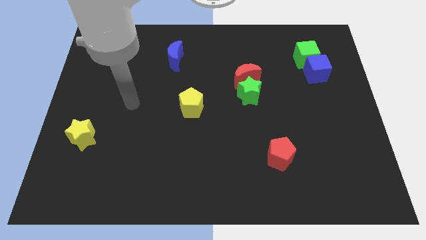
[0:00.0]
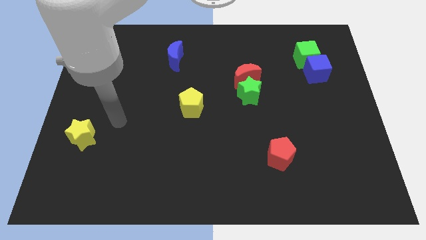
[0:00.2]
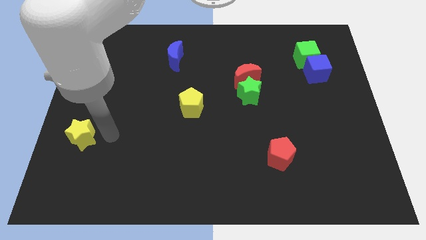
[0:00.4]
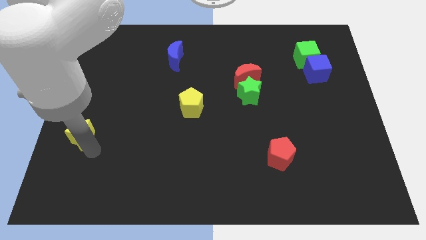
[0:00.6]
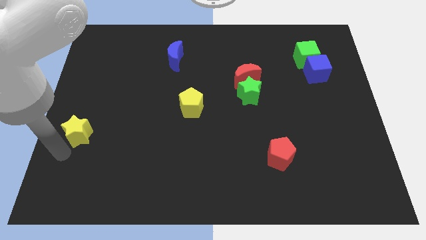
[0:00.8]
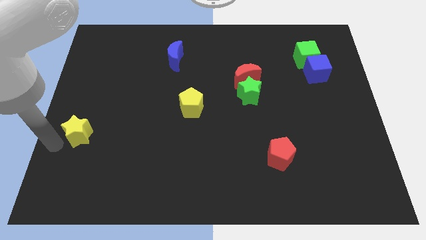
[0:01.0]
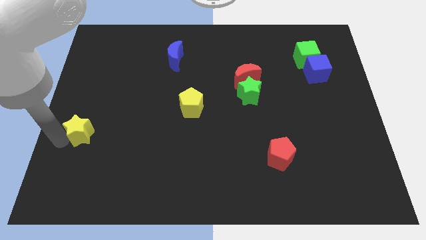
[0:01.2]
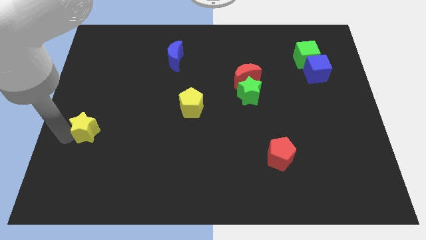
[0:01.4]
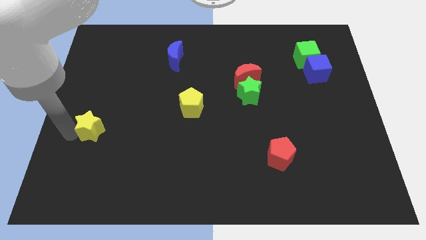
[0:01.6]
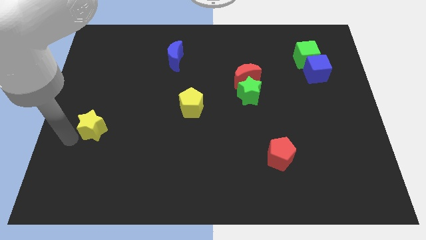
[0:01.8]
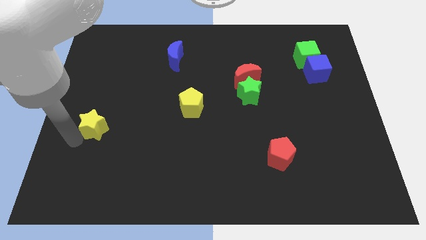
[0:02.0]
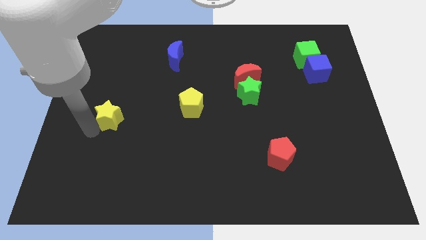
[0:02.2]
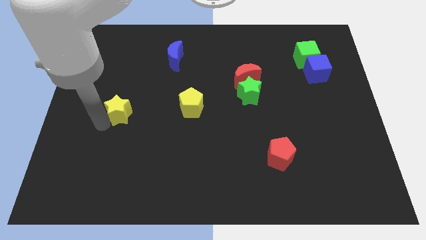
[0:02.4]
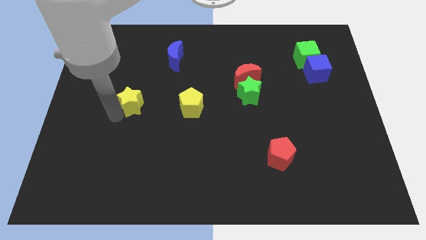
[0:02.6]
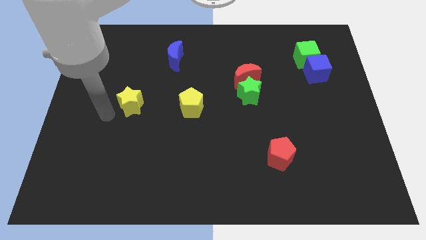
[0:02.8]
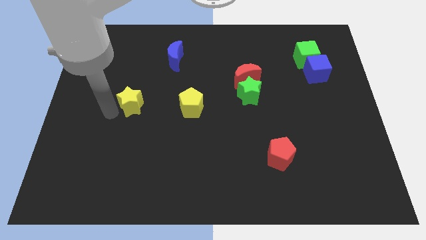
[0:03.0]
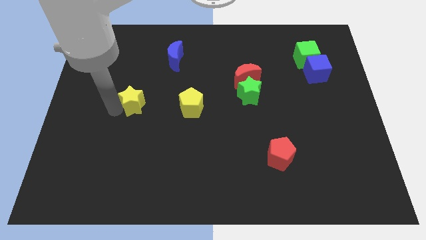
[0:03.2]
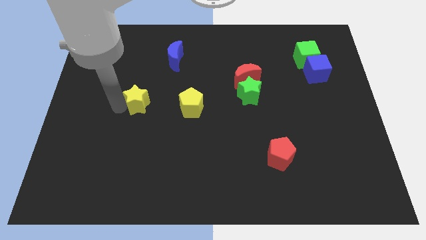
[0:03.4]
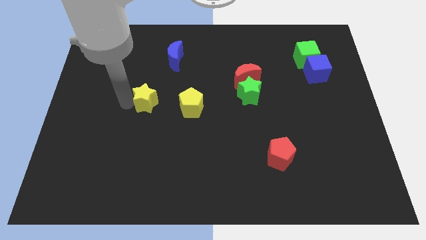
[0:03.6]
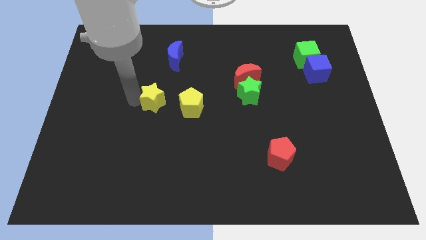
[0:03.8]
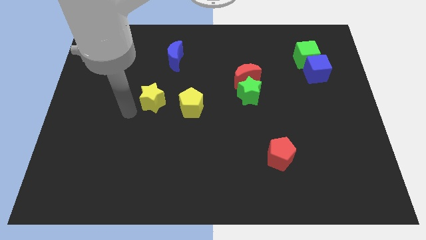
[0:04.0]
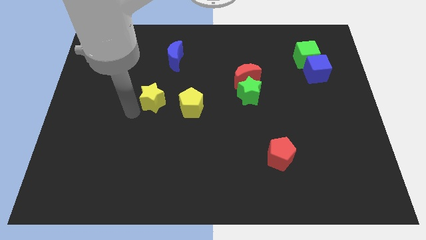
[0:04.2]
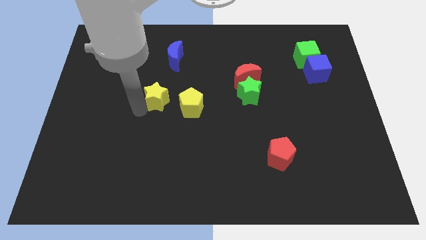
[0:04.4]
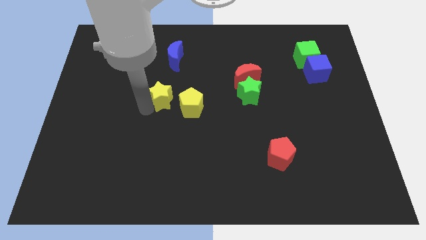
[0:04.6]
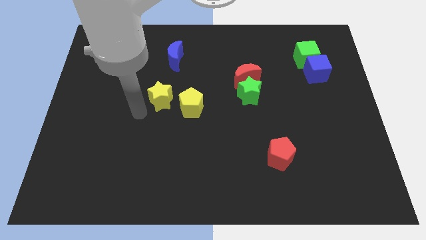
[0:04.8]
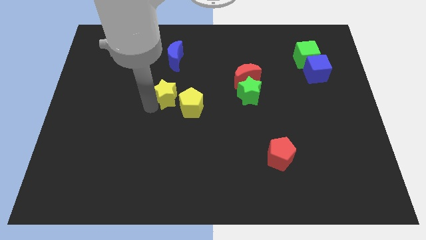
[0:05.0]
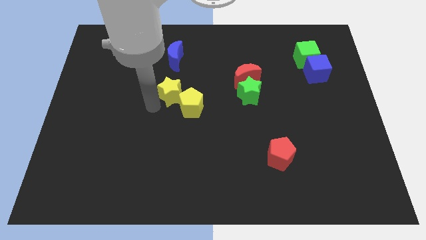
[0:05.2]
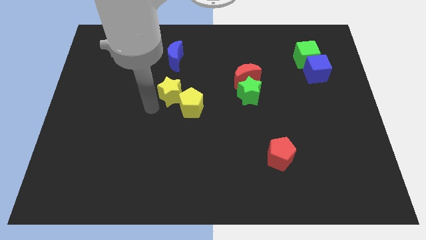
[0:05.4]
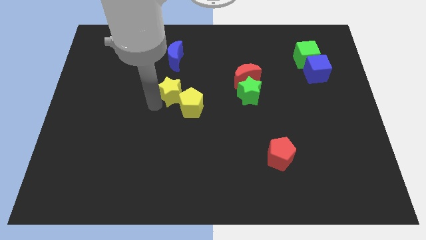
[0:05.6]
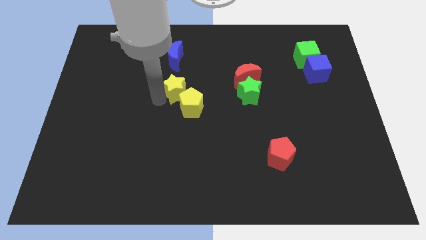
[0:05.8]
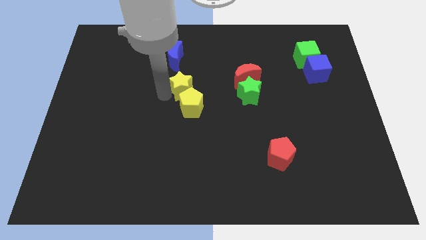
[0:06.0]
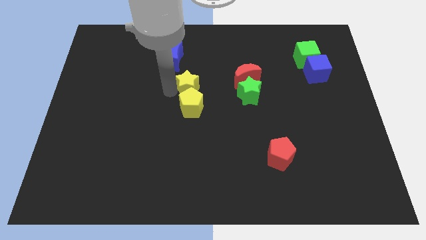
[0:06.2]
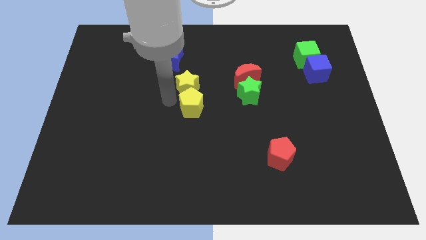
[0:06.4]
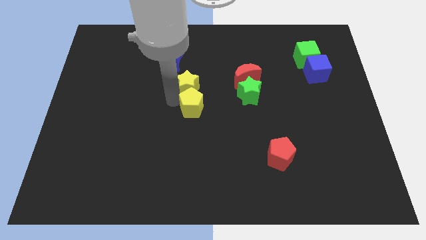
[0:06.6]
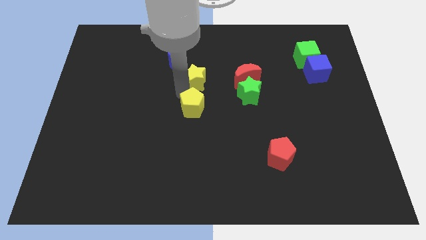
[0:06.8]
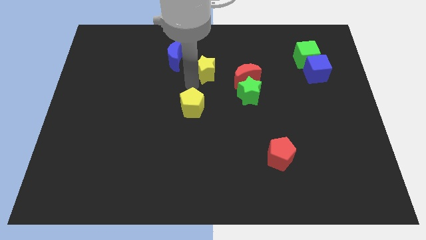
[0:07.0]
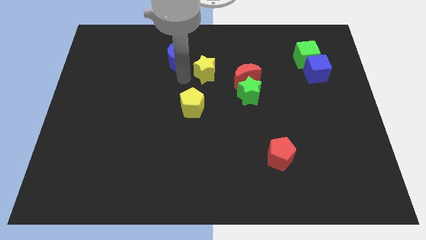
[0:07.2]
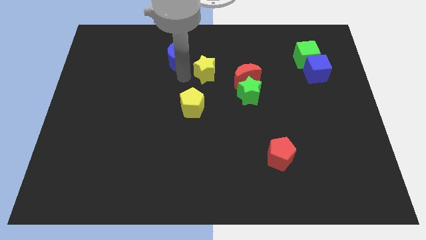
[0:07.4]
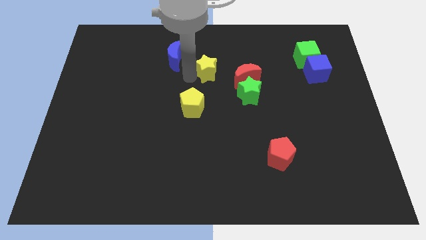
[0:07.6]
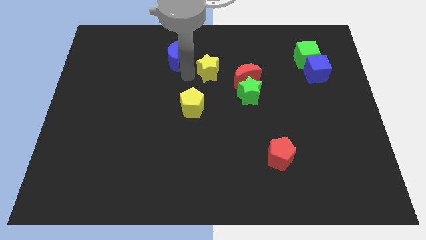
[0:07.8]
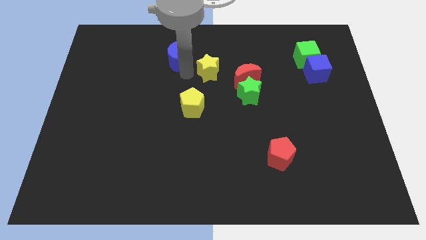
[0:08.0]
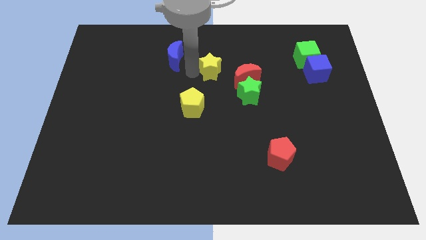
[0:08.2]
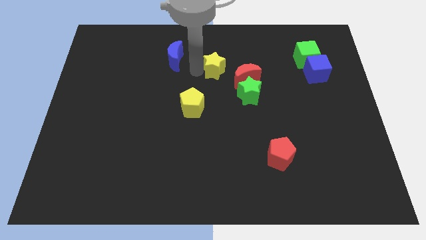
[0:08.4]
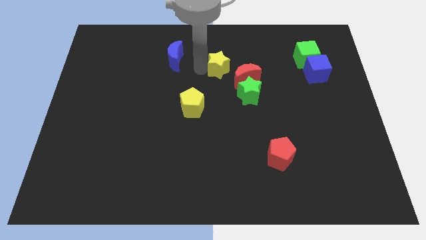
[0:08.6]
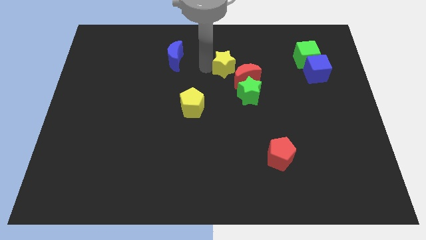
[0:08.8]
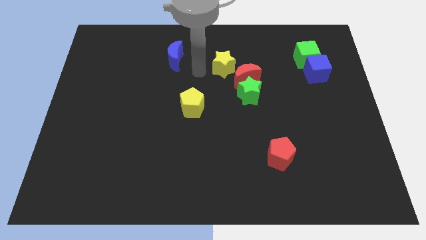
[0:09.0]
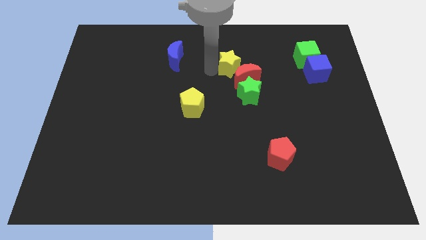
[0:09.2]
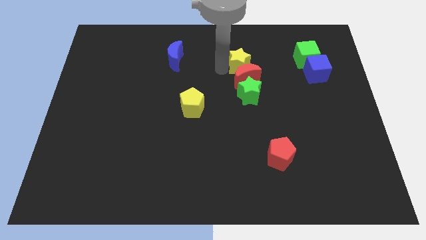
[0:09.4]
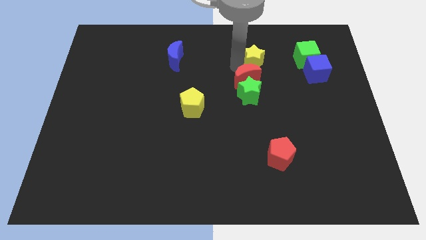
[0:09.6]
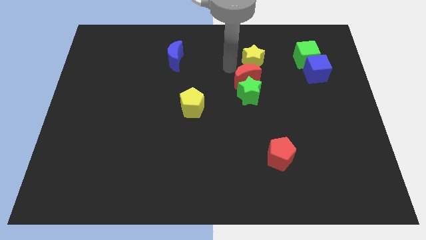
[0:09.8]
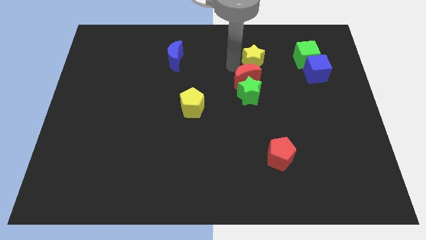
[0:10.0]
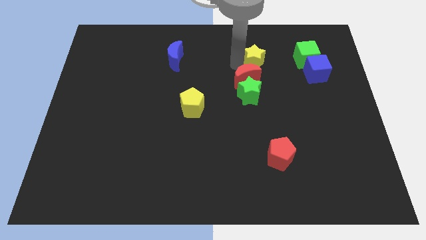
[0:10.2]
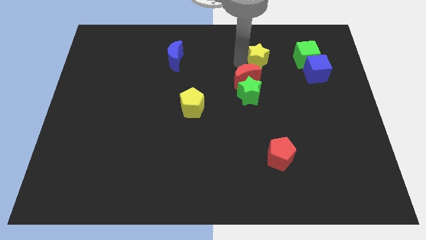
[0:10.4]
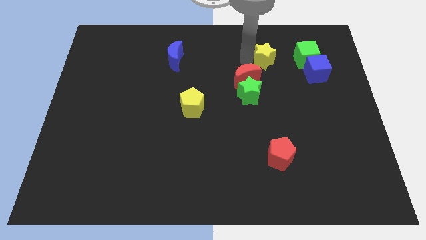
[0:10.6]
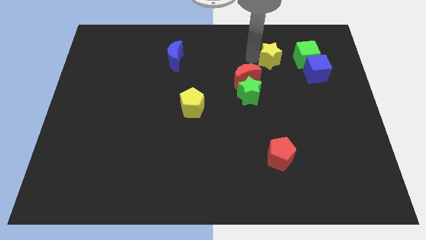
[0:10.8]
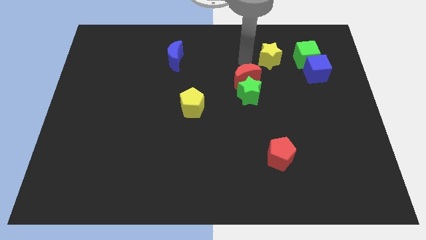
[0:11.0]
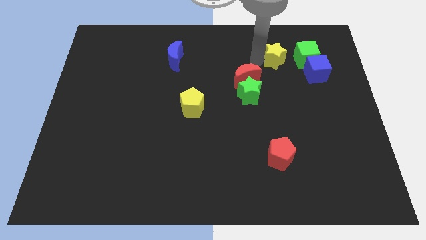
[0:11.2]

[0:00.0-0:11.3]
slide the yellow star diagonally up and to the left of the blue cube

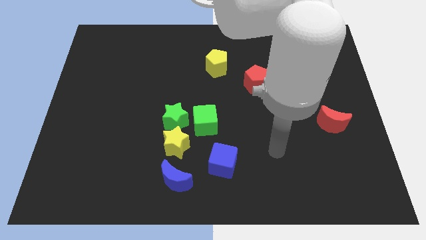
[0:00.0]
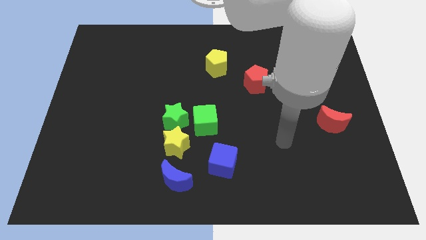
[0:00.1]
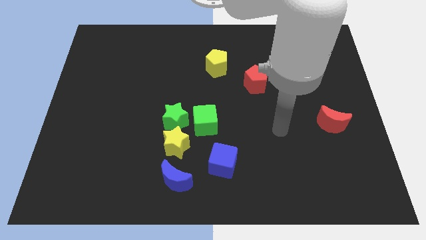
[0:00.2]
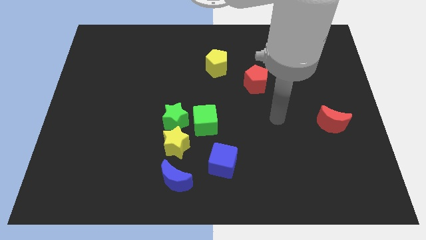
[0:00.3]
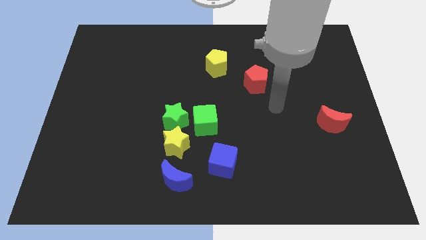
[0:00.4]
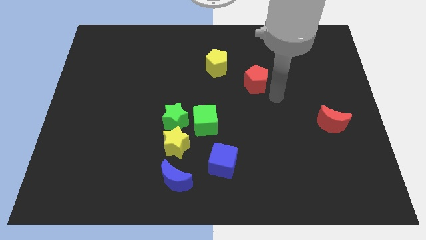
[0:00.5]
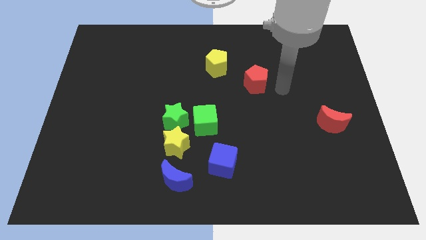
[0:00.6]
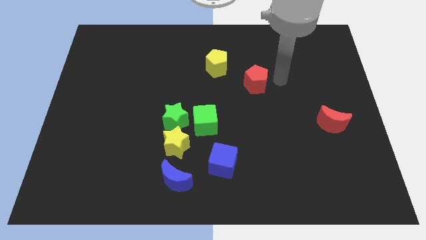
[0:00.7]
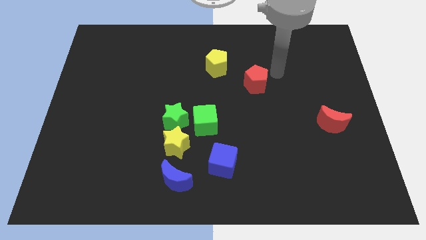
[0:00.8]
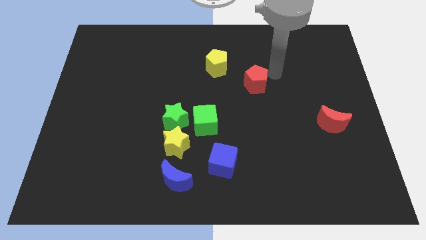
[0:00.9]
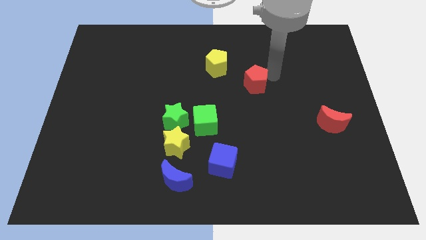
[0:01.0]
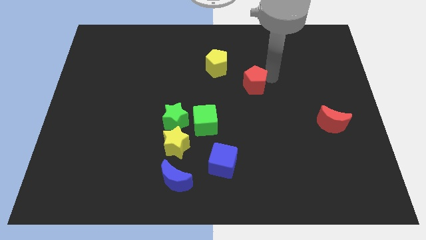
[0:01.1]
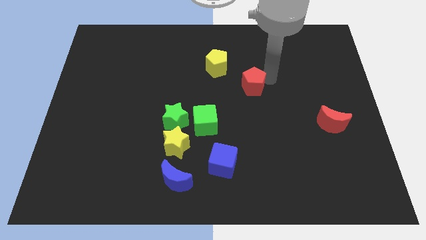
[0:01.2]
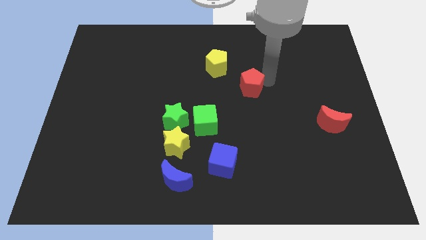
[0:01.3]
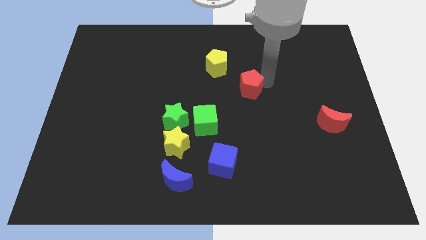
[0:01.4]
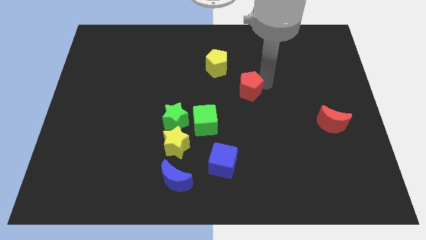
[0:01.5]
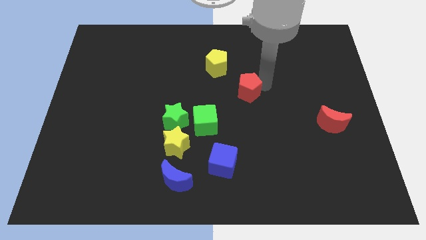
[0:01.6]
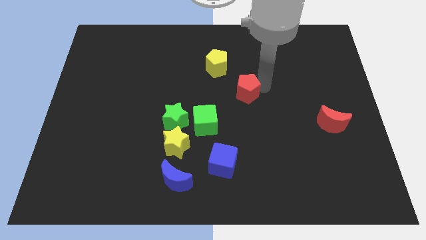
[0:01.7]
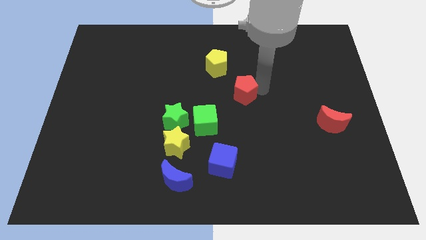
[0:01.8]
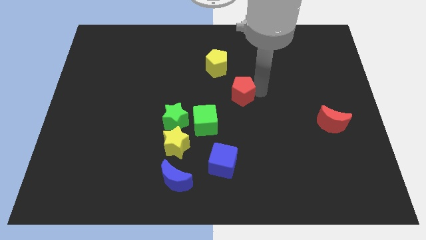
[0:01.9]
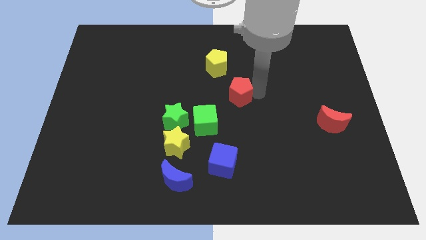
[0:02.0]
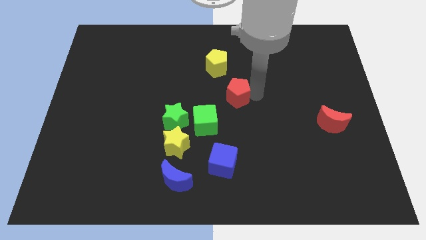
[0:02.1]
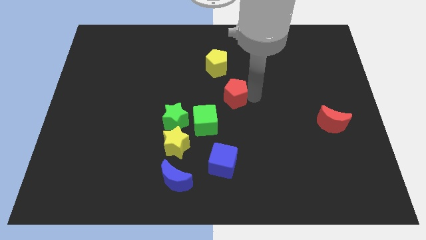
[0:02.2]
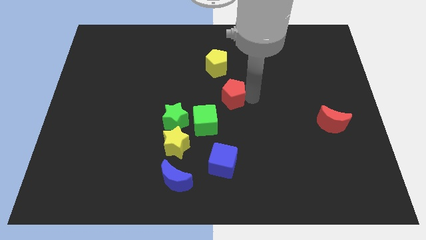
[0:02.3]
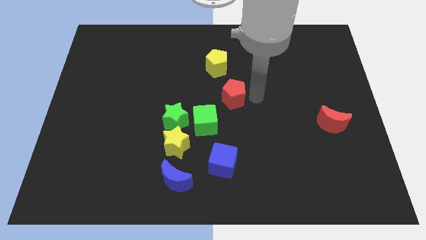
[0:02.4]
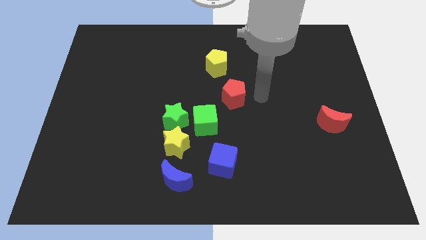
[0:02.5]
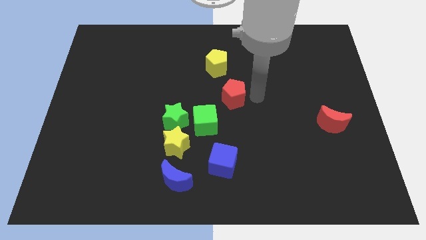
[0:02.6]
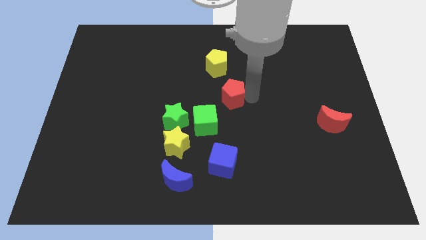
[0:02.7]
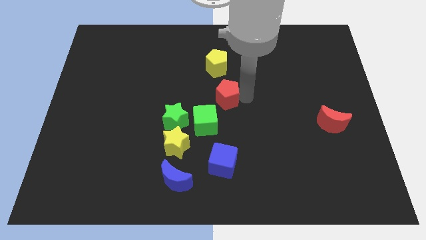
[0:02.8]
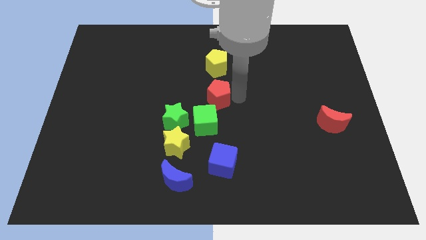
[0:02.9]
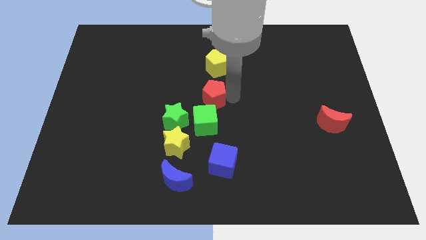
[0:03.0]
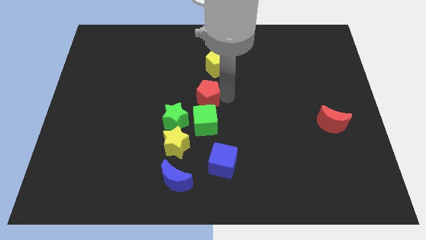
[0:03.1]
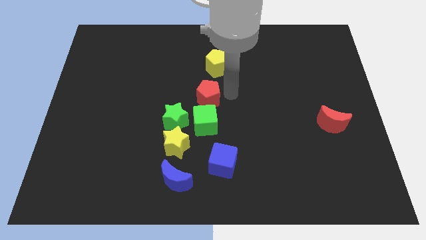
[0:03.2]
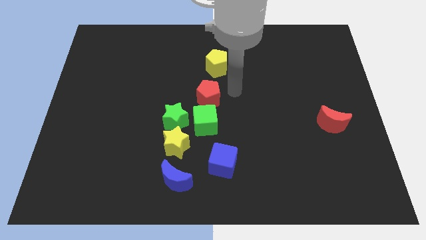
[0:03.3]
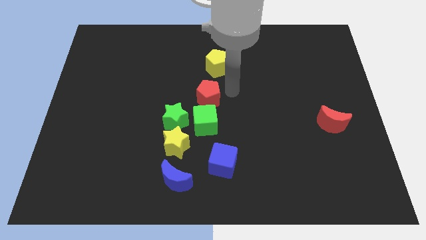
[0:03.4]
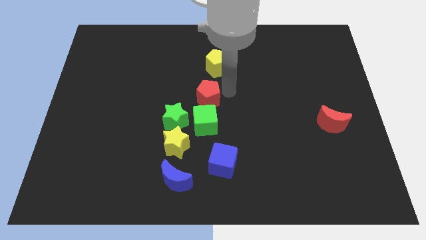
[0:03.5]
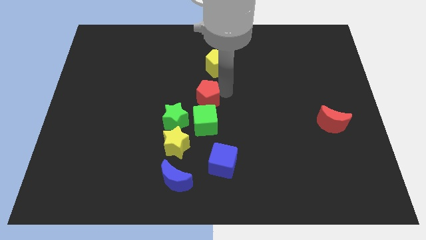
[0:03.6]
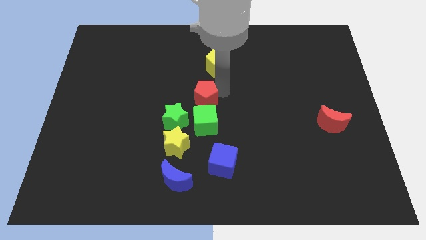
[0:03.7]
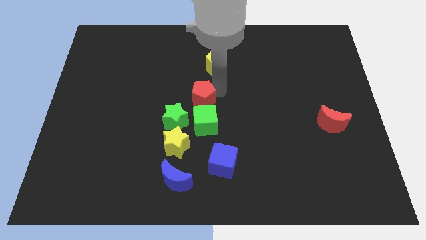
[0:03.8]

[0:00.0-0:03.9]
slide the red pentagon to the top left of the green cube
